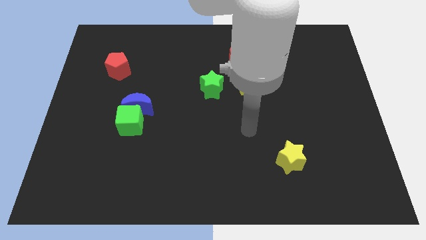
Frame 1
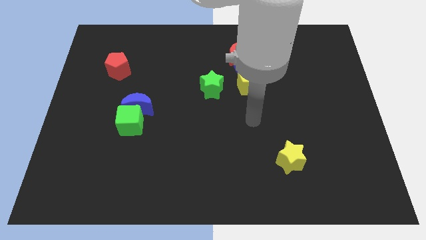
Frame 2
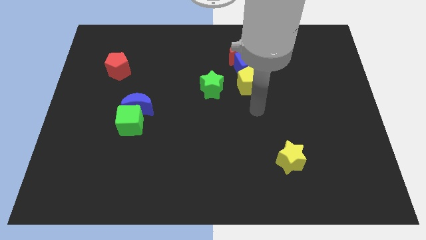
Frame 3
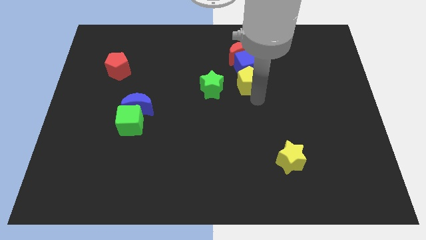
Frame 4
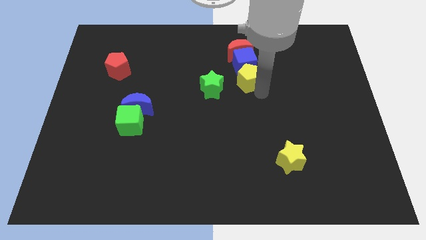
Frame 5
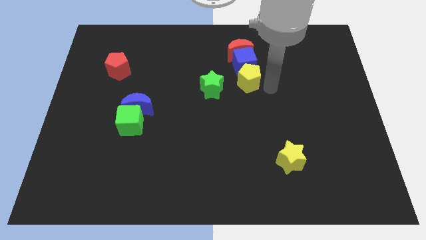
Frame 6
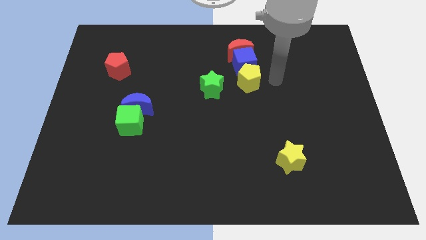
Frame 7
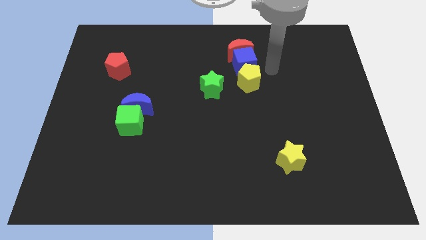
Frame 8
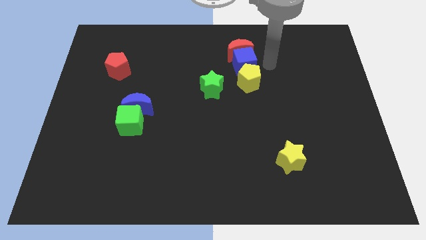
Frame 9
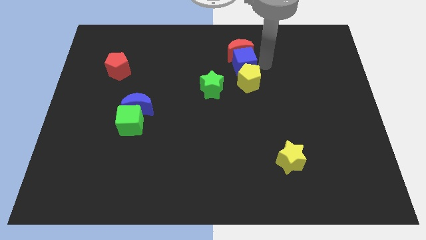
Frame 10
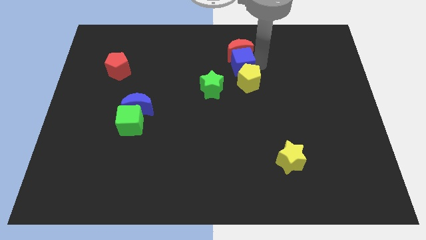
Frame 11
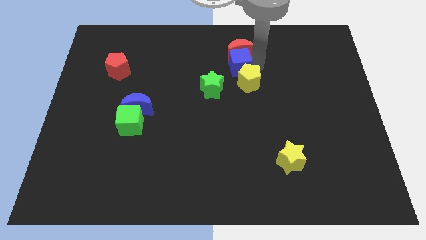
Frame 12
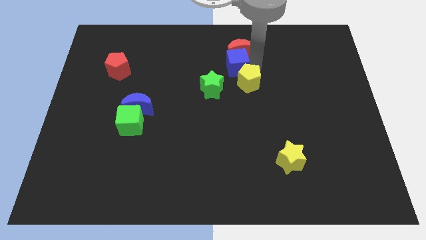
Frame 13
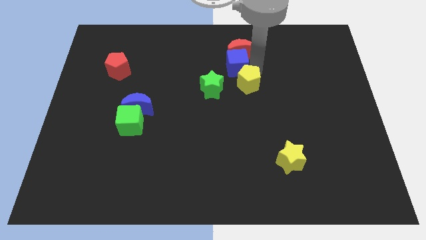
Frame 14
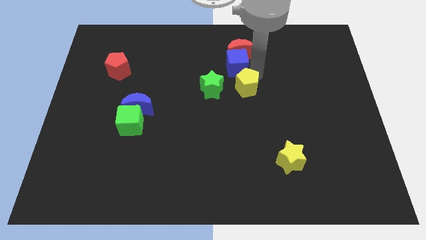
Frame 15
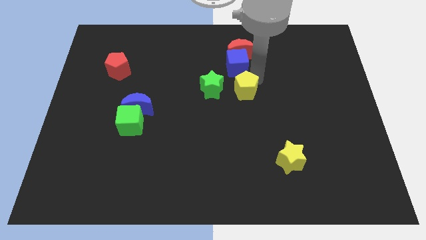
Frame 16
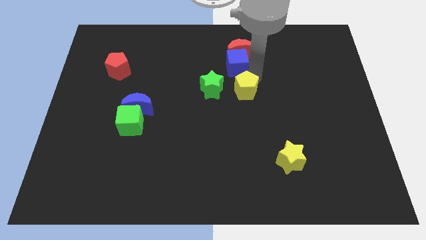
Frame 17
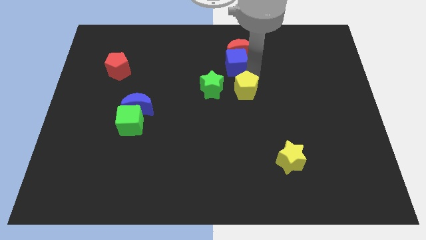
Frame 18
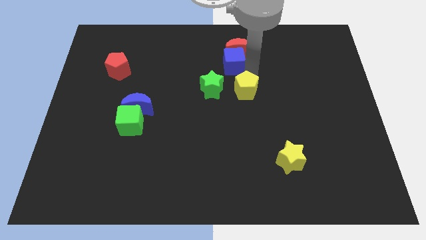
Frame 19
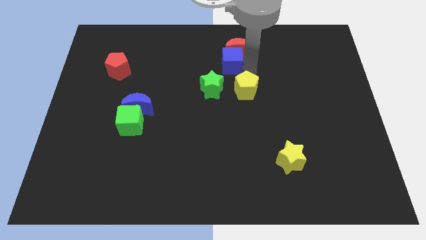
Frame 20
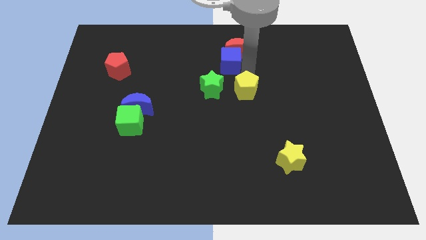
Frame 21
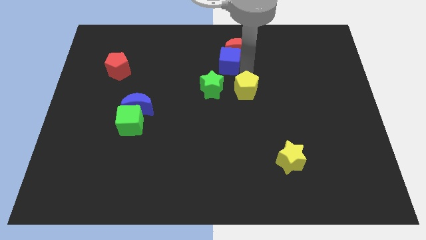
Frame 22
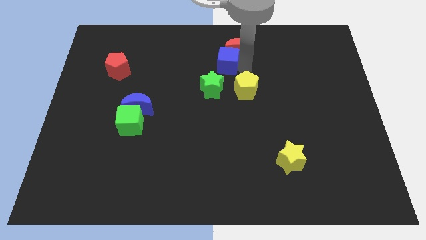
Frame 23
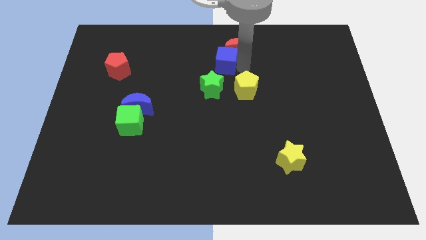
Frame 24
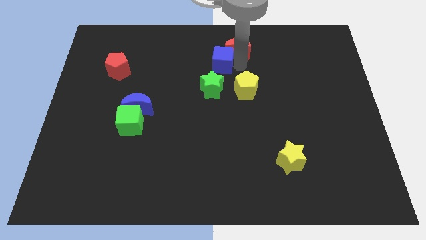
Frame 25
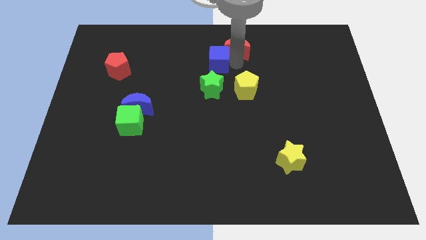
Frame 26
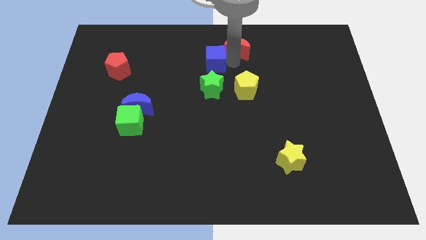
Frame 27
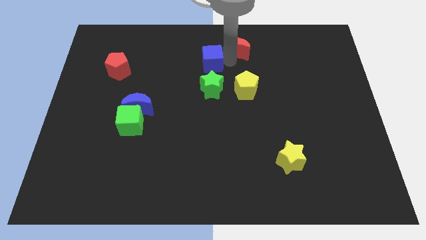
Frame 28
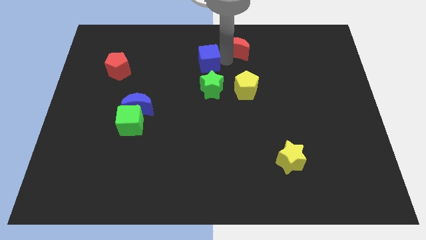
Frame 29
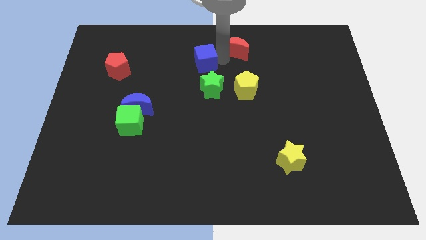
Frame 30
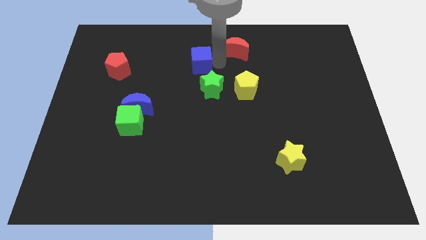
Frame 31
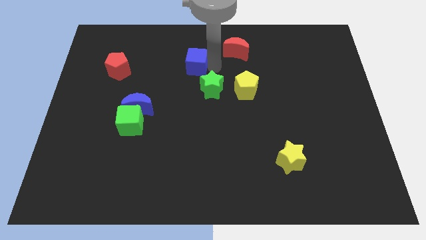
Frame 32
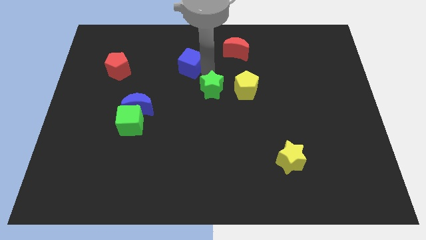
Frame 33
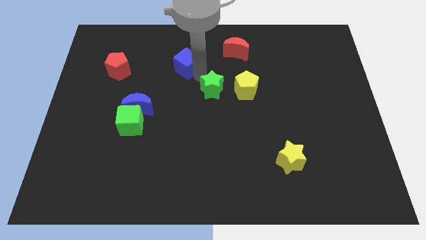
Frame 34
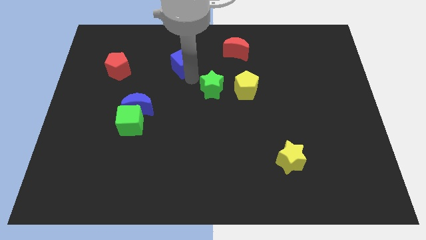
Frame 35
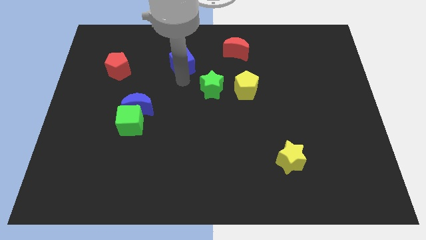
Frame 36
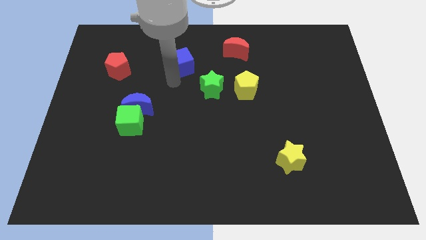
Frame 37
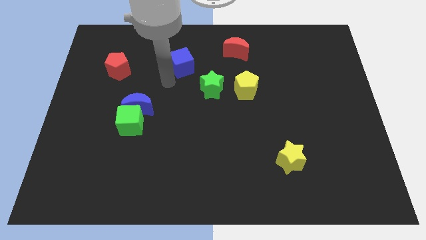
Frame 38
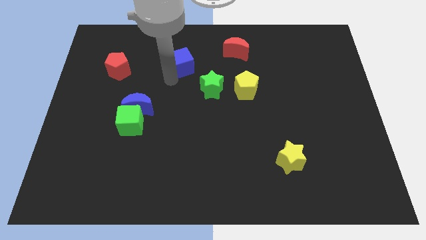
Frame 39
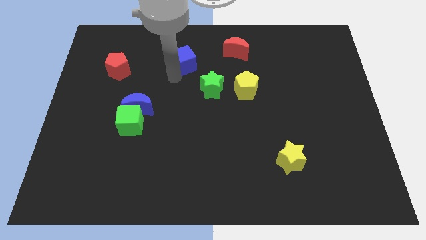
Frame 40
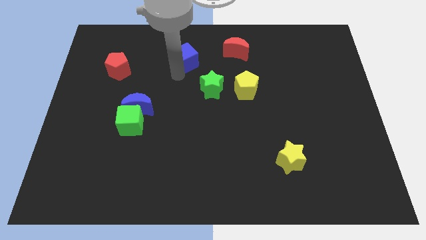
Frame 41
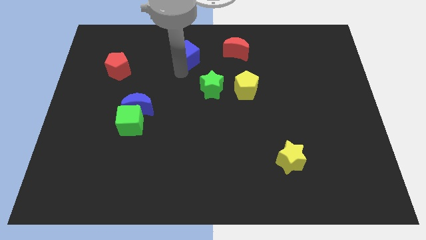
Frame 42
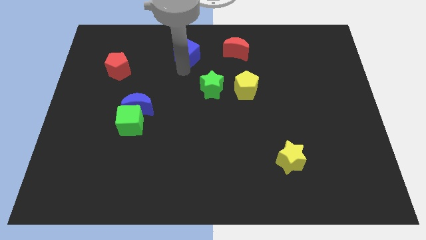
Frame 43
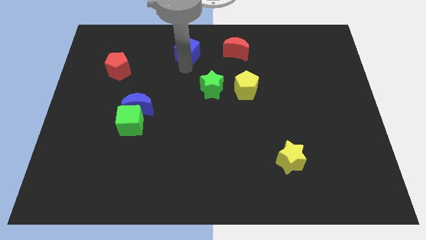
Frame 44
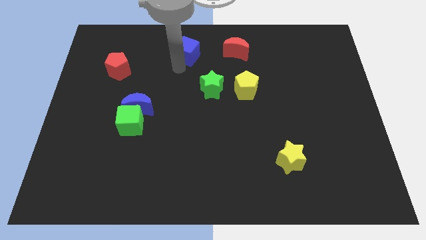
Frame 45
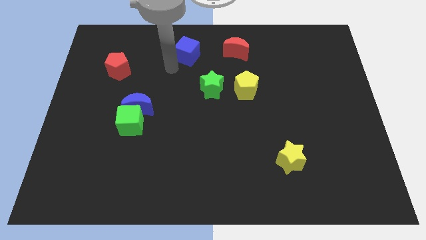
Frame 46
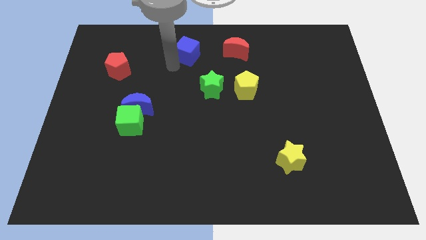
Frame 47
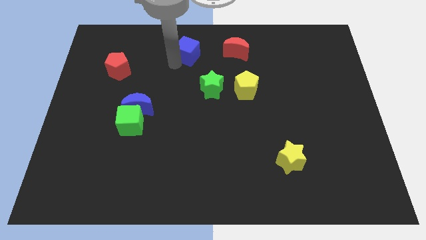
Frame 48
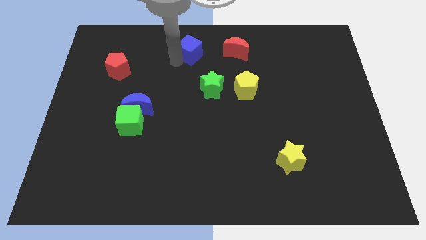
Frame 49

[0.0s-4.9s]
push the blue cube to the towards your base
